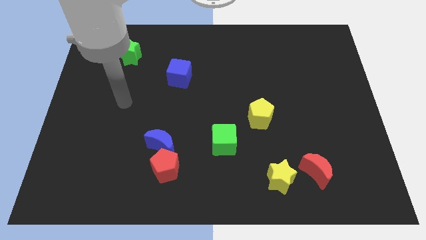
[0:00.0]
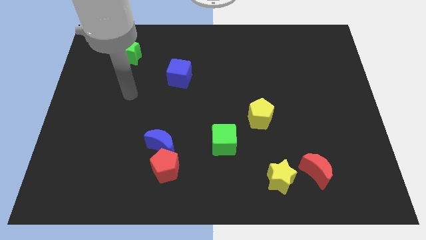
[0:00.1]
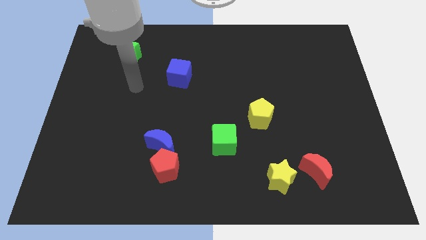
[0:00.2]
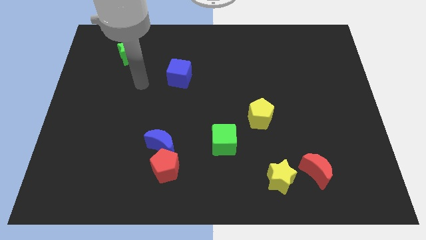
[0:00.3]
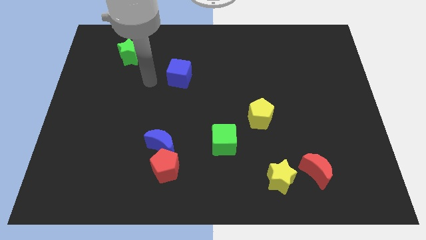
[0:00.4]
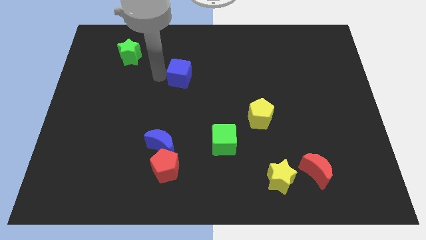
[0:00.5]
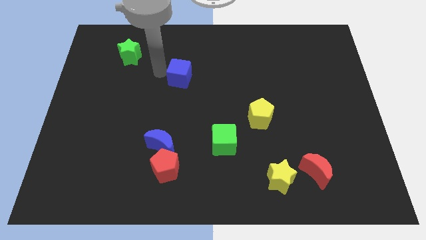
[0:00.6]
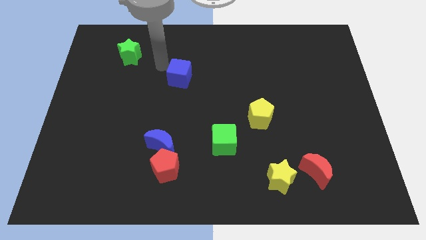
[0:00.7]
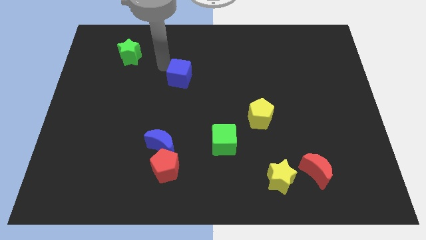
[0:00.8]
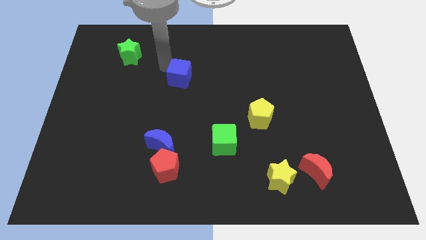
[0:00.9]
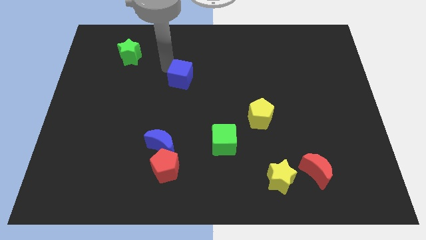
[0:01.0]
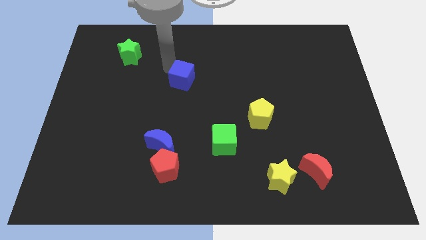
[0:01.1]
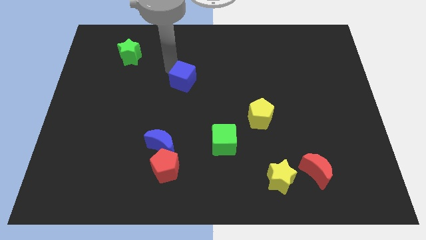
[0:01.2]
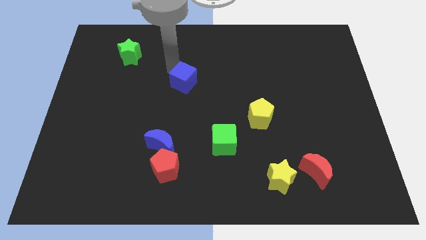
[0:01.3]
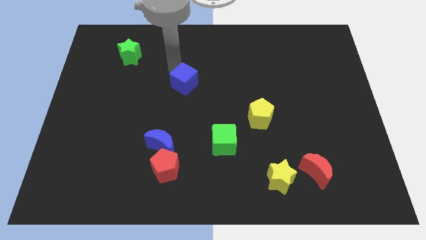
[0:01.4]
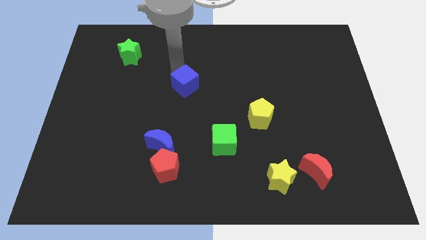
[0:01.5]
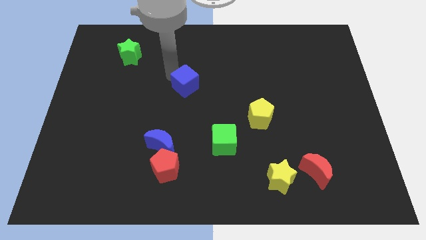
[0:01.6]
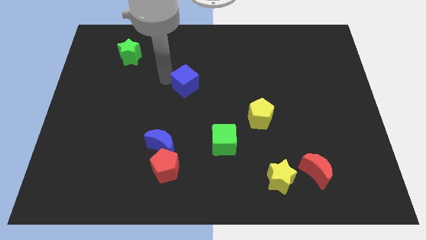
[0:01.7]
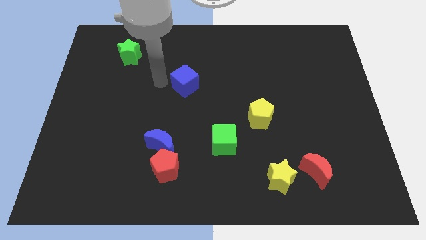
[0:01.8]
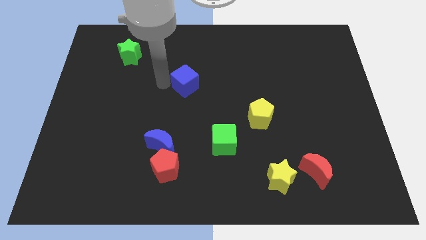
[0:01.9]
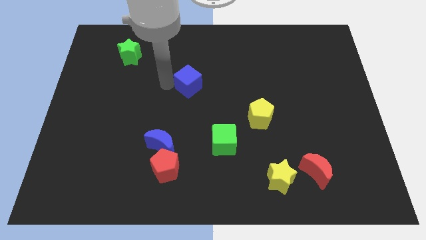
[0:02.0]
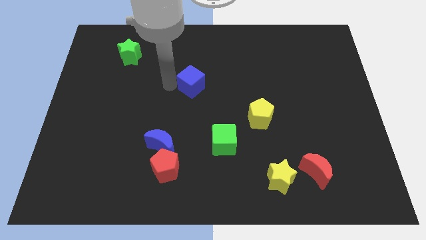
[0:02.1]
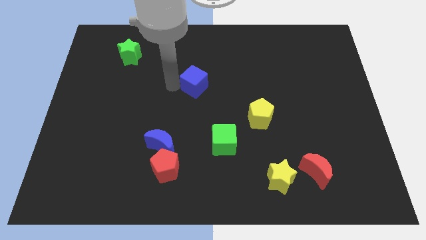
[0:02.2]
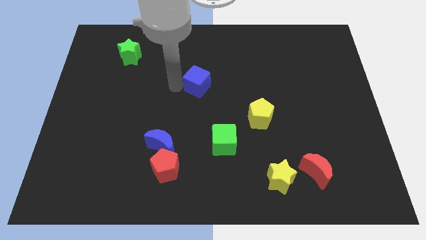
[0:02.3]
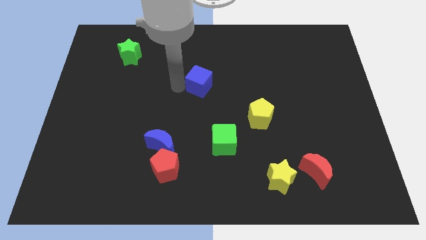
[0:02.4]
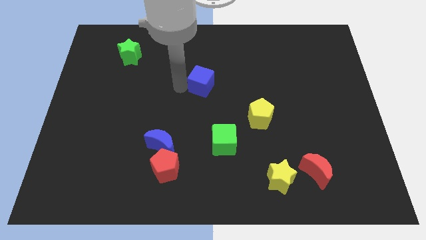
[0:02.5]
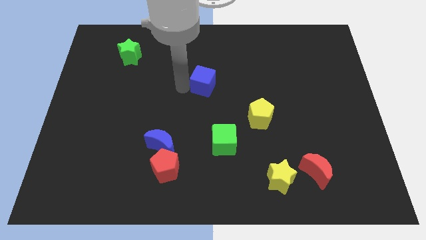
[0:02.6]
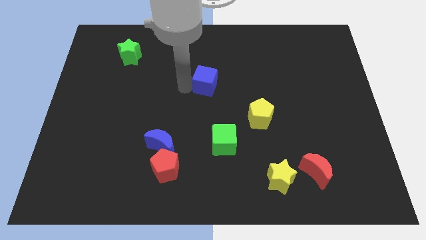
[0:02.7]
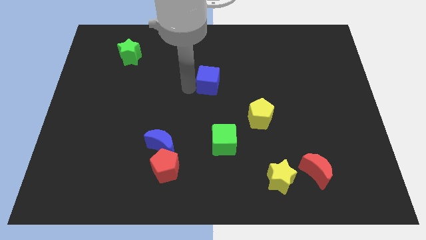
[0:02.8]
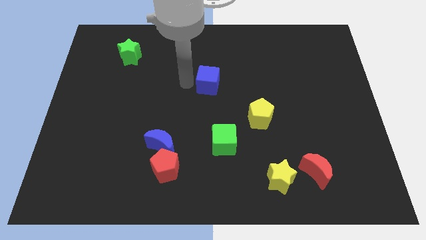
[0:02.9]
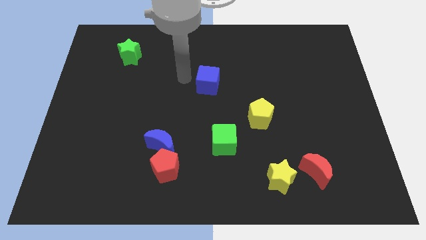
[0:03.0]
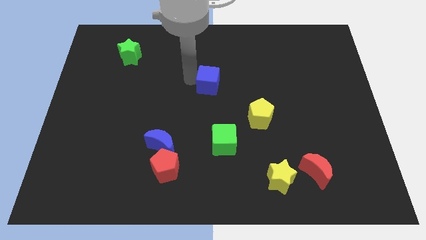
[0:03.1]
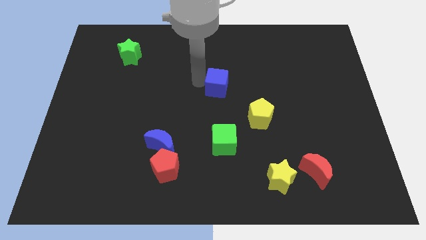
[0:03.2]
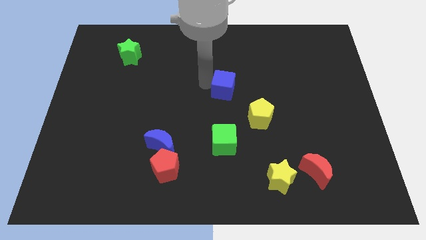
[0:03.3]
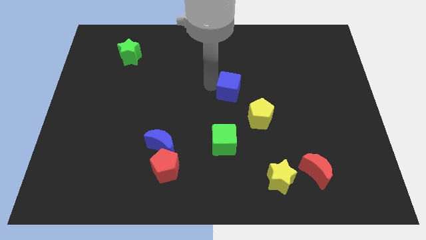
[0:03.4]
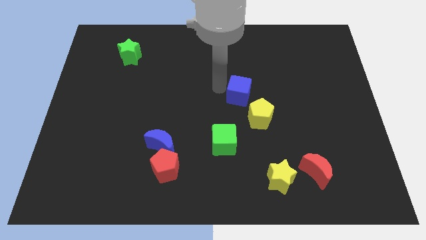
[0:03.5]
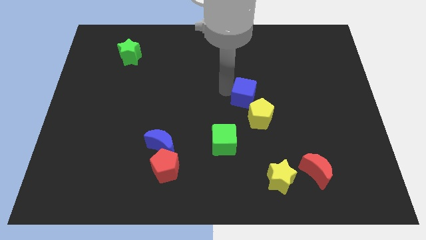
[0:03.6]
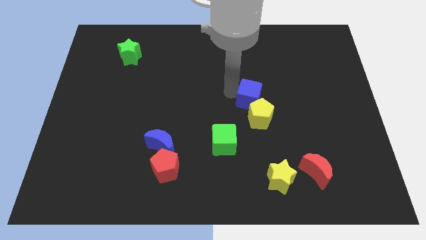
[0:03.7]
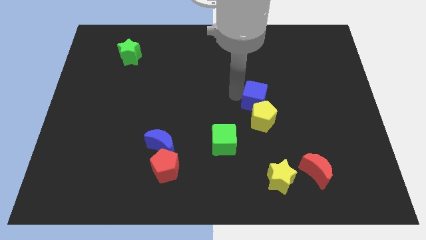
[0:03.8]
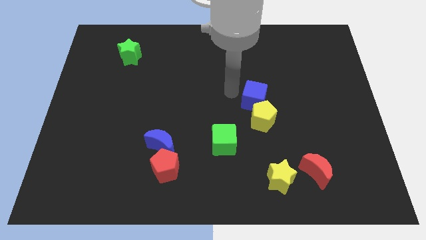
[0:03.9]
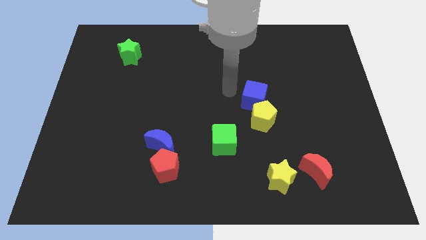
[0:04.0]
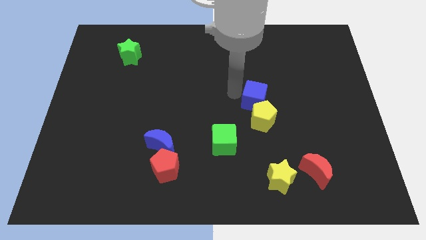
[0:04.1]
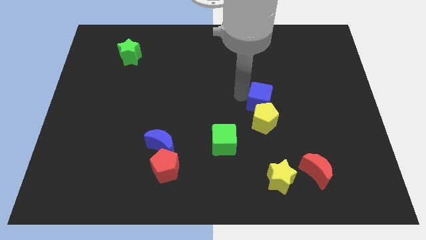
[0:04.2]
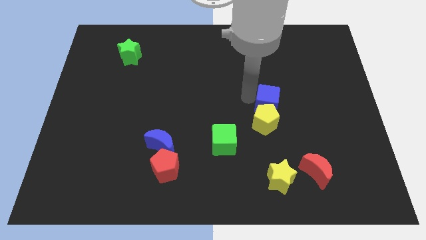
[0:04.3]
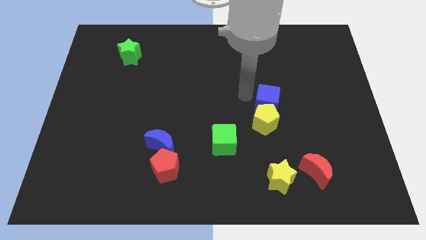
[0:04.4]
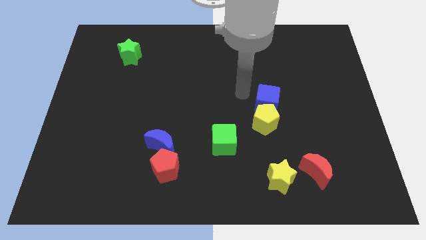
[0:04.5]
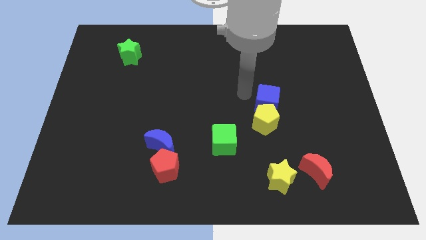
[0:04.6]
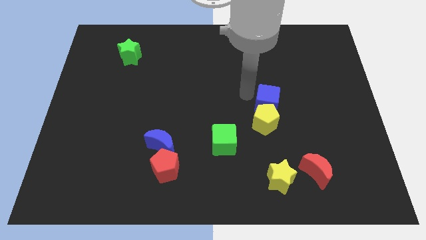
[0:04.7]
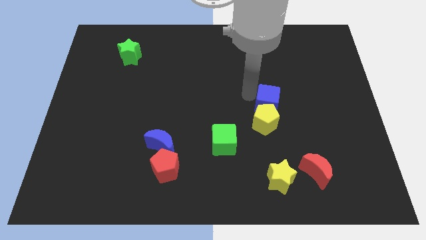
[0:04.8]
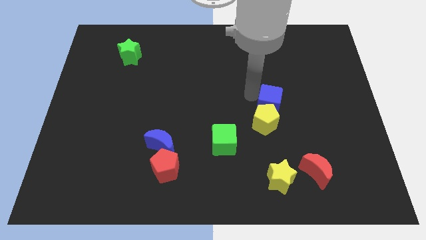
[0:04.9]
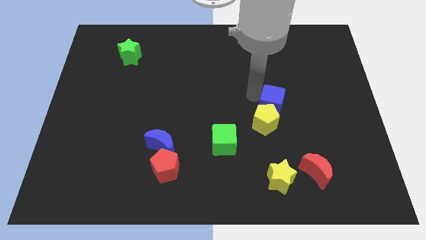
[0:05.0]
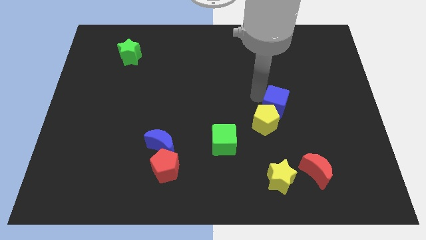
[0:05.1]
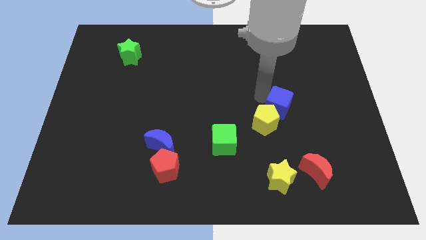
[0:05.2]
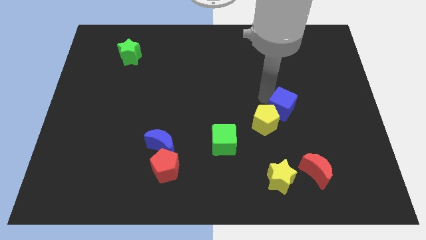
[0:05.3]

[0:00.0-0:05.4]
slide the blue cube to the right side of the yellow pentagon

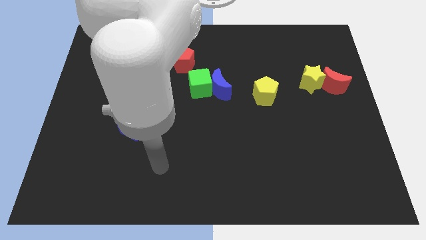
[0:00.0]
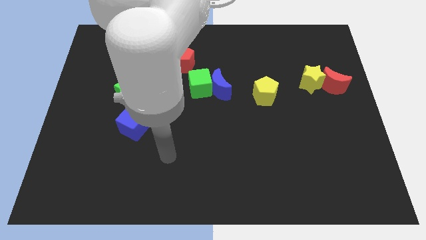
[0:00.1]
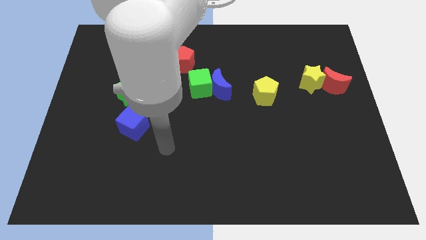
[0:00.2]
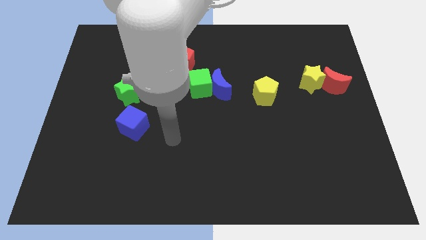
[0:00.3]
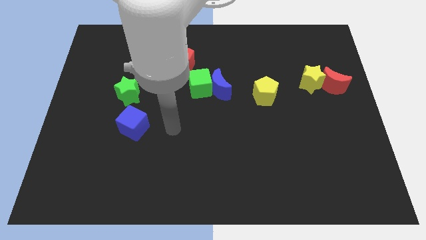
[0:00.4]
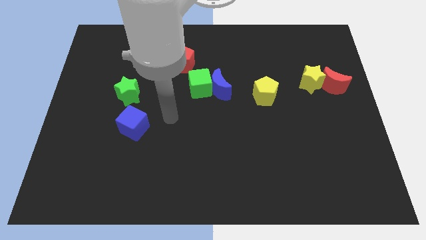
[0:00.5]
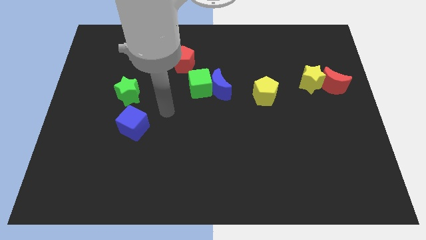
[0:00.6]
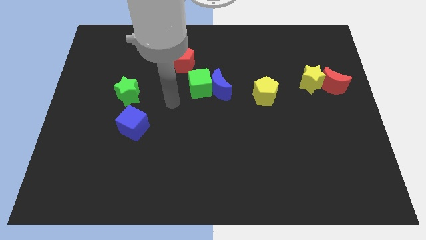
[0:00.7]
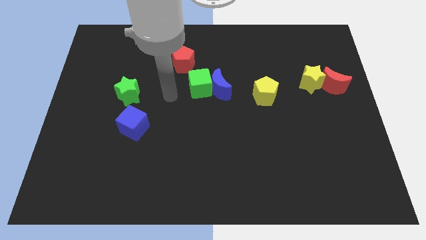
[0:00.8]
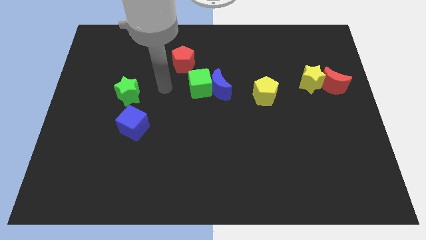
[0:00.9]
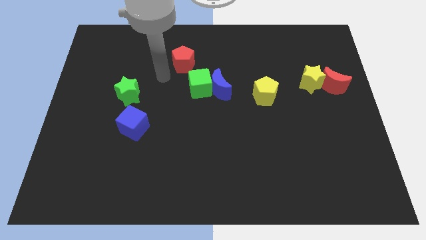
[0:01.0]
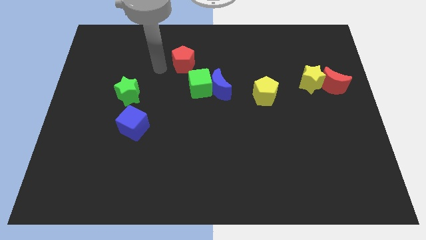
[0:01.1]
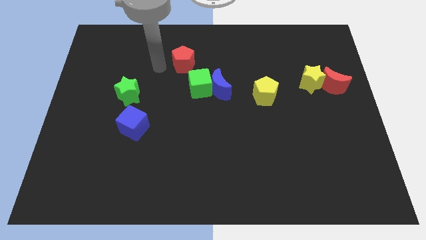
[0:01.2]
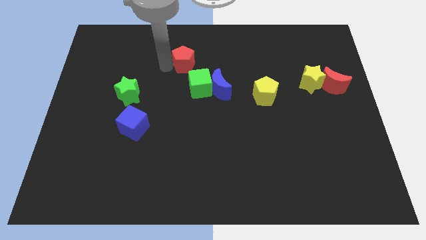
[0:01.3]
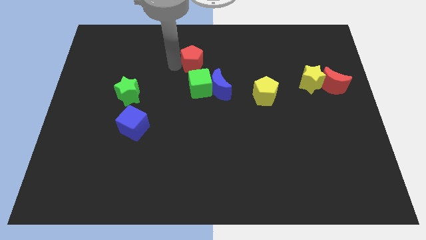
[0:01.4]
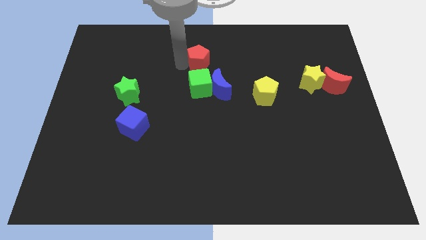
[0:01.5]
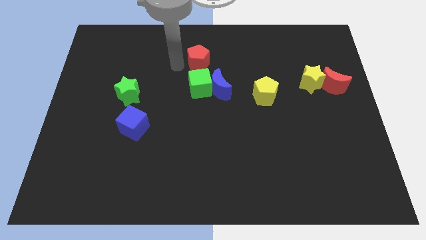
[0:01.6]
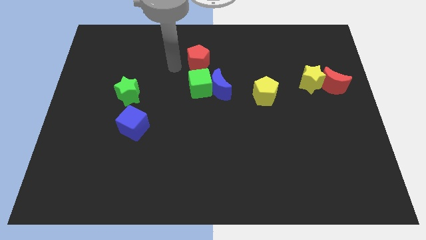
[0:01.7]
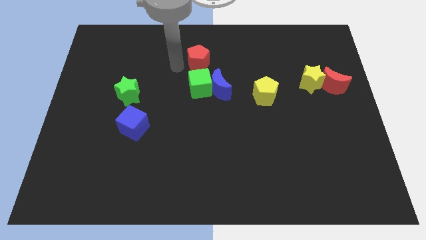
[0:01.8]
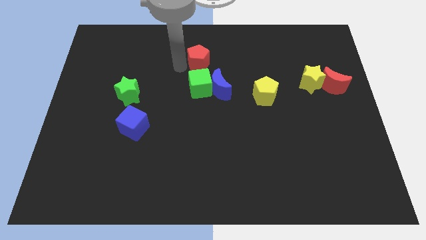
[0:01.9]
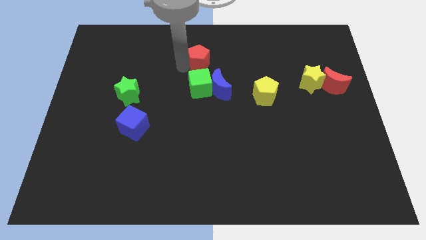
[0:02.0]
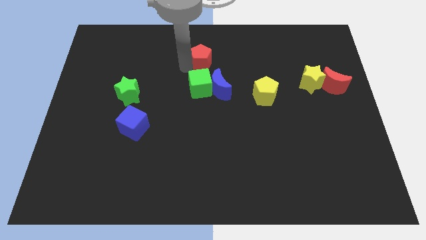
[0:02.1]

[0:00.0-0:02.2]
move the red pentagon to the top of the blue moon

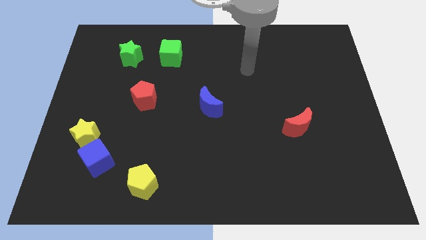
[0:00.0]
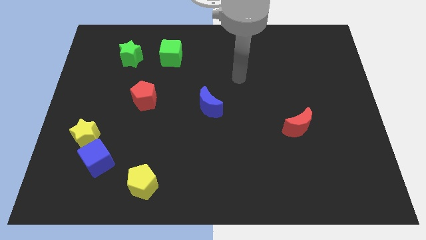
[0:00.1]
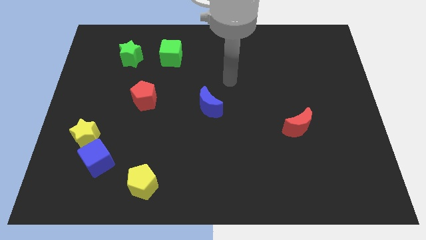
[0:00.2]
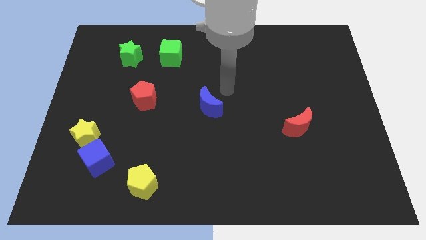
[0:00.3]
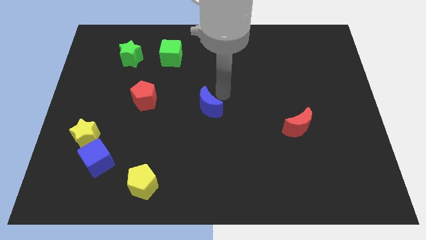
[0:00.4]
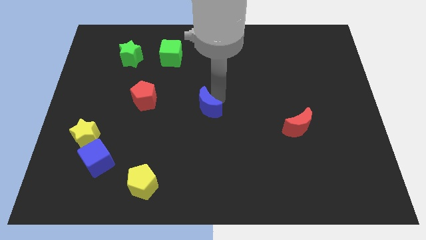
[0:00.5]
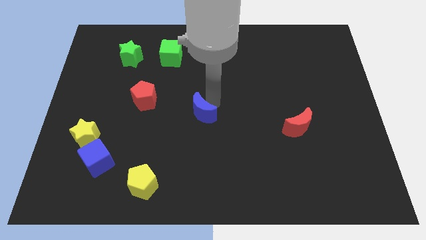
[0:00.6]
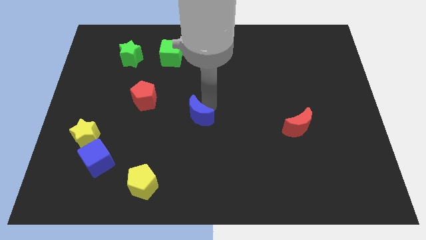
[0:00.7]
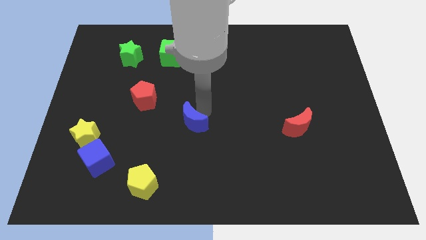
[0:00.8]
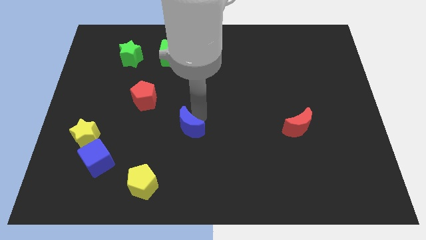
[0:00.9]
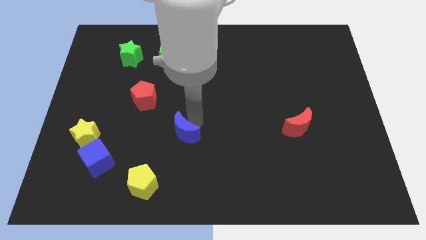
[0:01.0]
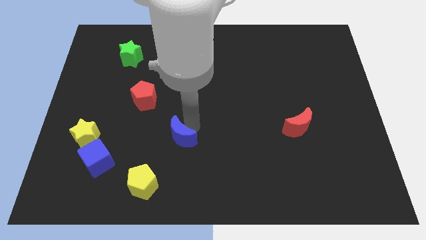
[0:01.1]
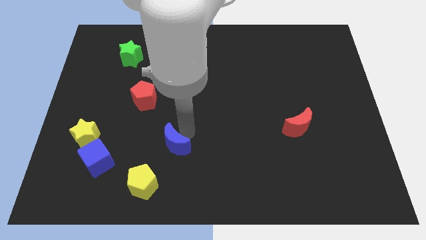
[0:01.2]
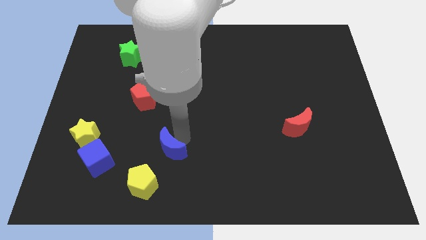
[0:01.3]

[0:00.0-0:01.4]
slide the blue moon to the right side of the blue cube
